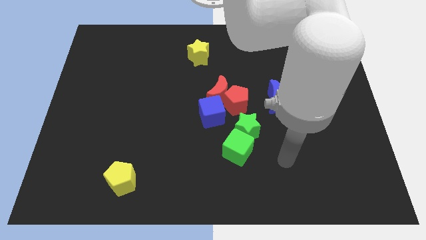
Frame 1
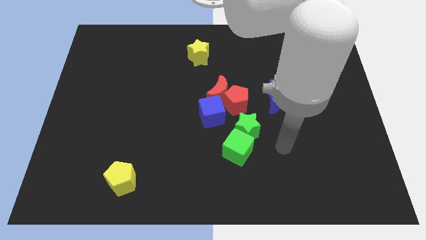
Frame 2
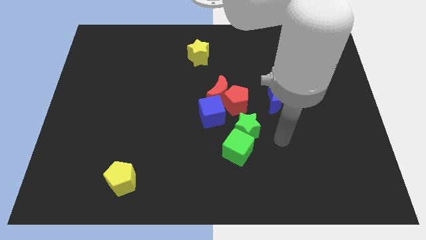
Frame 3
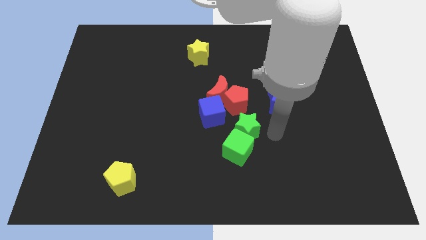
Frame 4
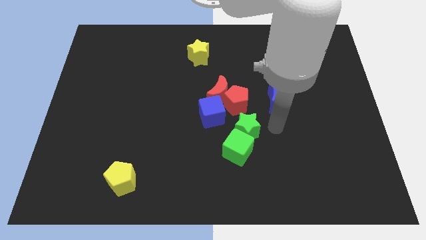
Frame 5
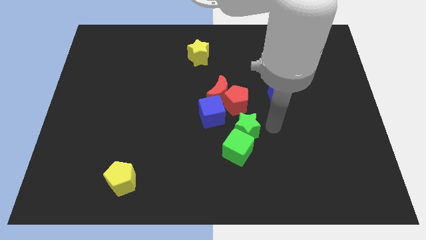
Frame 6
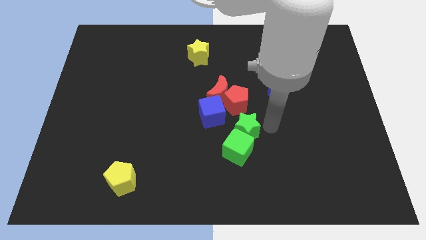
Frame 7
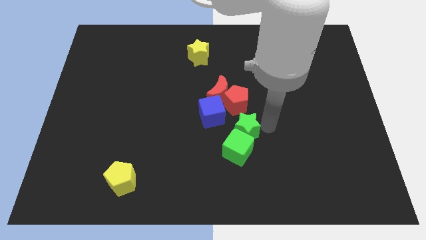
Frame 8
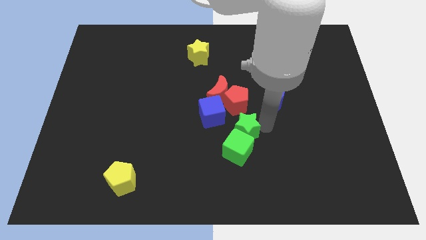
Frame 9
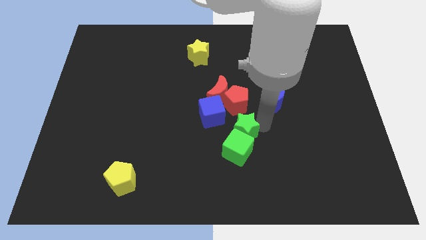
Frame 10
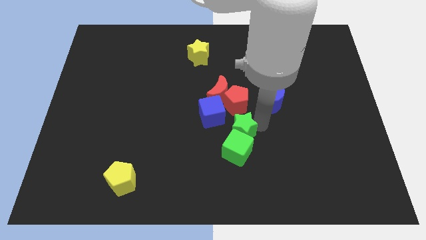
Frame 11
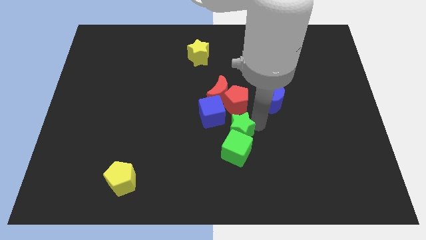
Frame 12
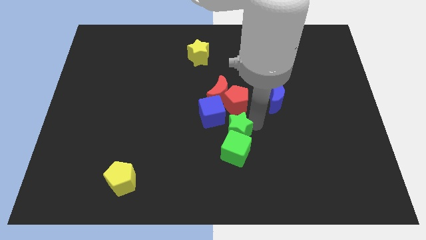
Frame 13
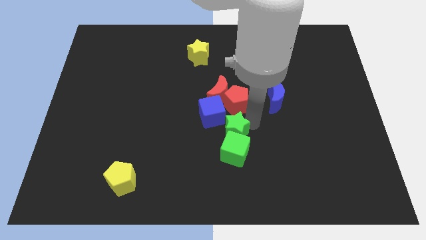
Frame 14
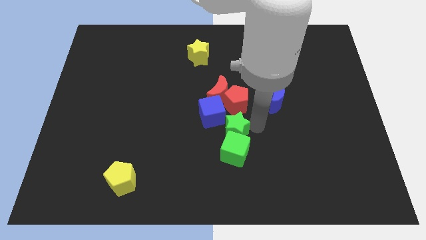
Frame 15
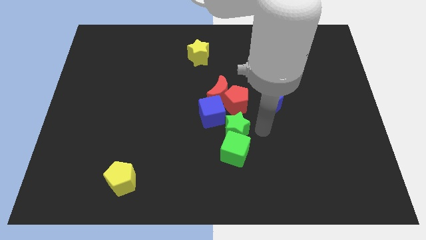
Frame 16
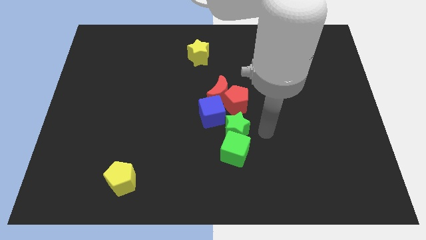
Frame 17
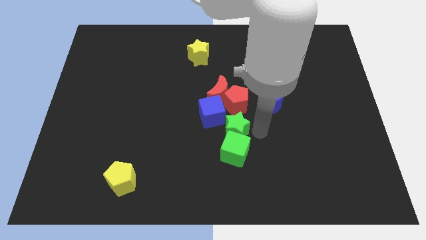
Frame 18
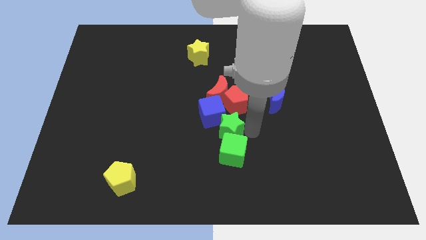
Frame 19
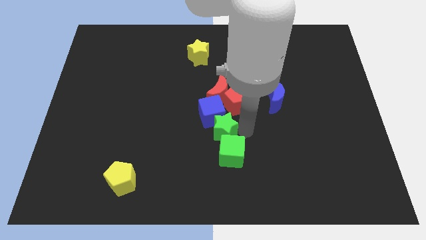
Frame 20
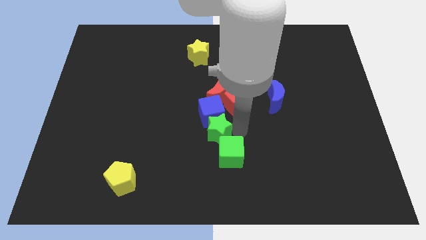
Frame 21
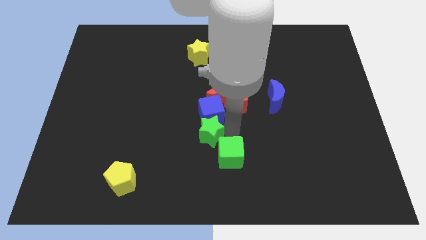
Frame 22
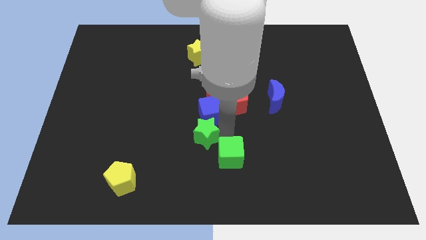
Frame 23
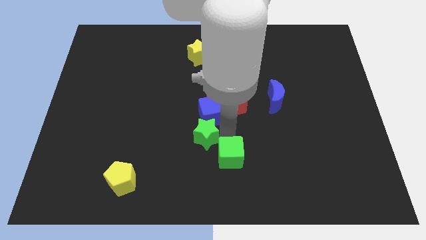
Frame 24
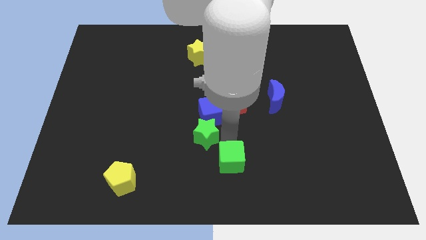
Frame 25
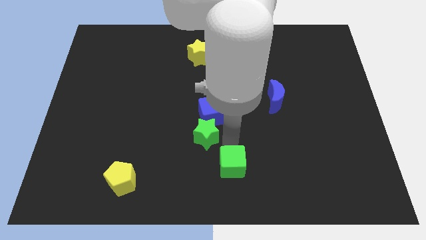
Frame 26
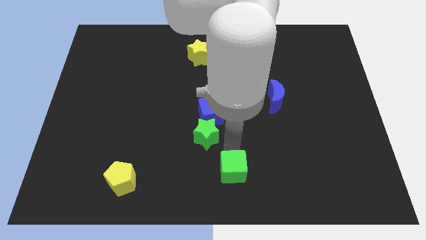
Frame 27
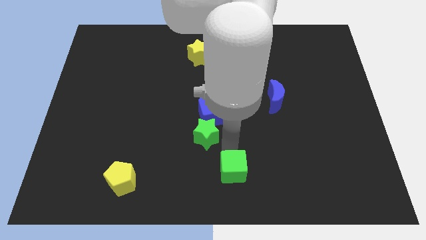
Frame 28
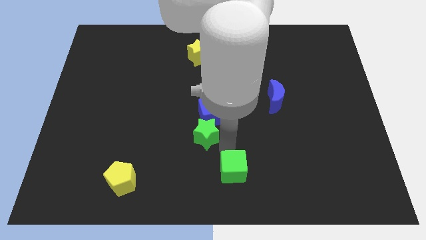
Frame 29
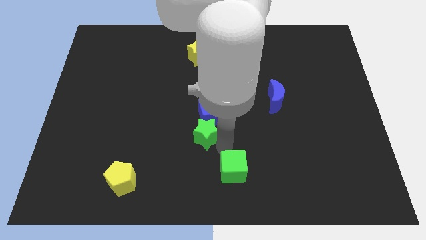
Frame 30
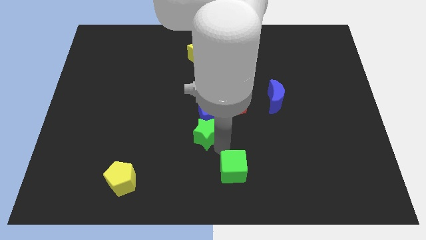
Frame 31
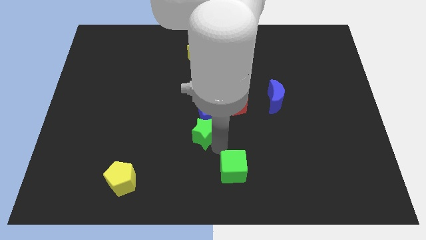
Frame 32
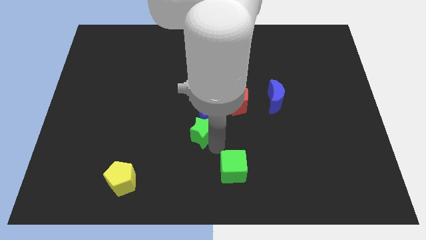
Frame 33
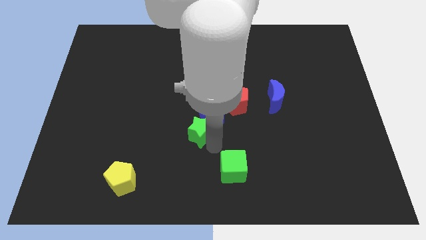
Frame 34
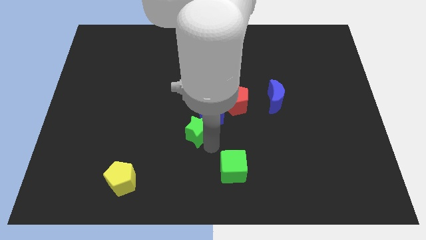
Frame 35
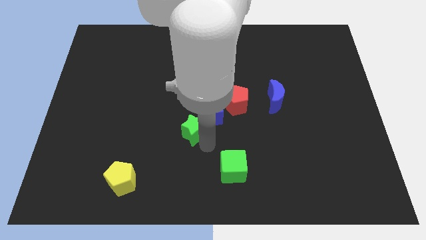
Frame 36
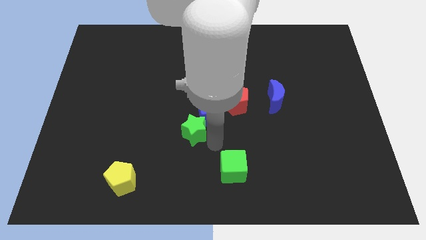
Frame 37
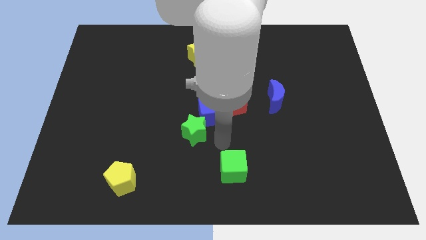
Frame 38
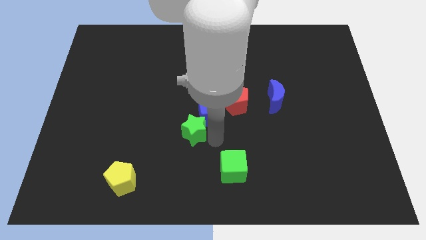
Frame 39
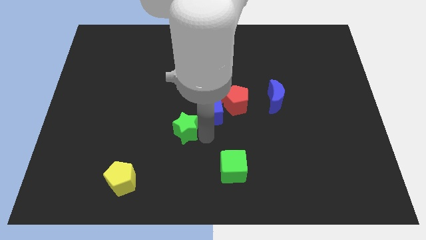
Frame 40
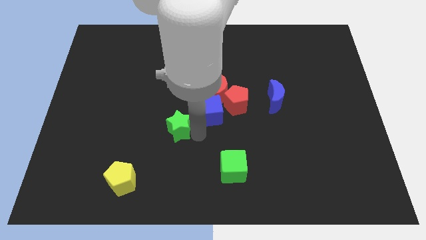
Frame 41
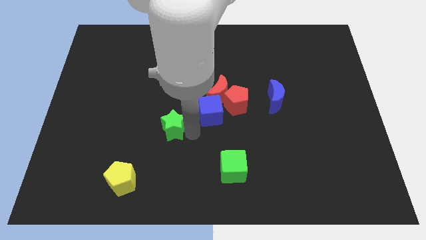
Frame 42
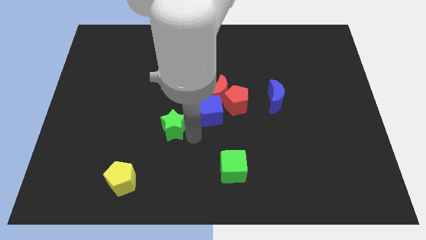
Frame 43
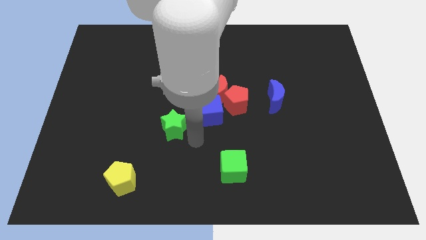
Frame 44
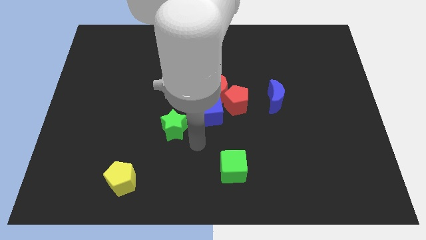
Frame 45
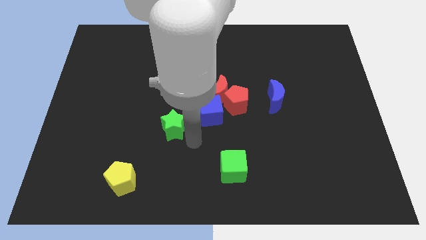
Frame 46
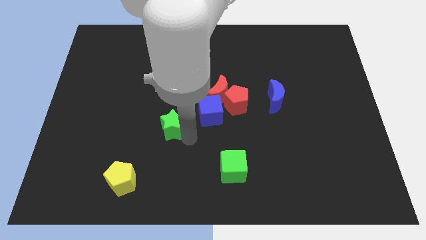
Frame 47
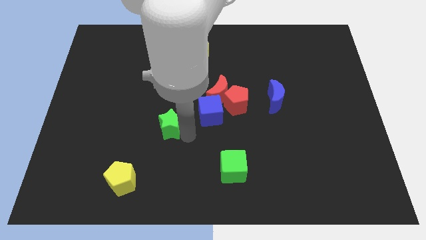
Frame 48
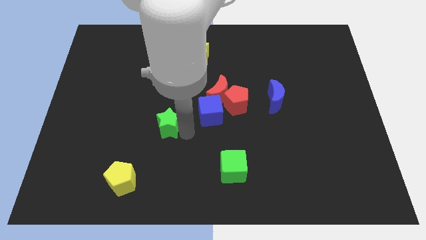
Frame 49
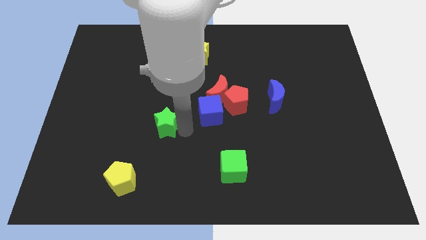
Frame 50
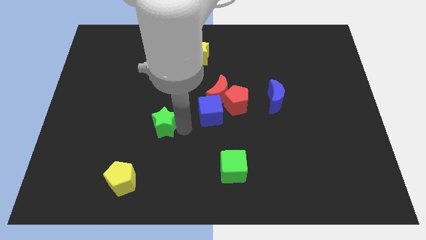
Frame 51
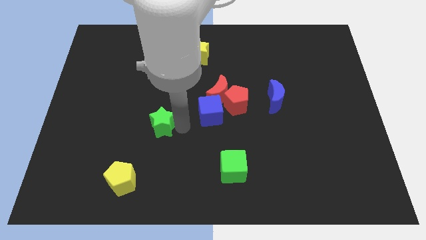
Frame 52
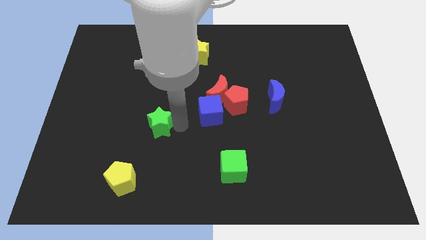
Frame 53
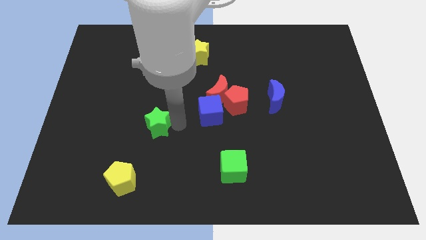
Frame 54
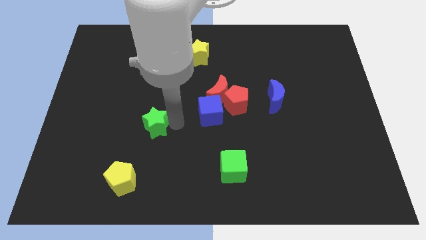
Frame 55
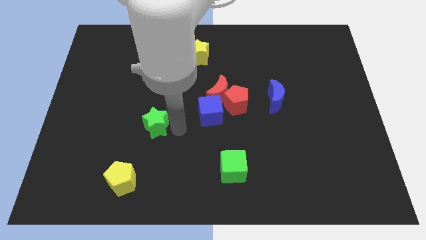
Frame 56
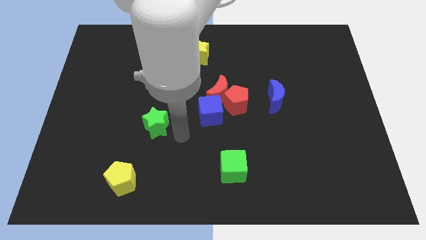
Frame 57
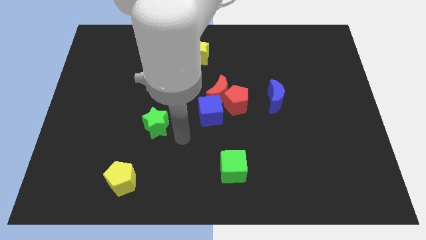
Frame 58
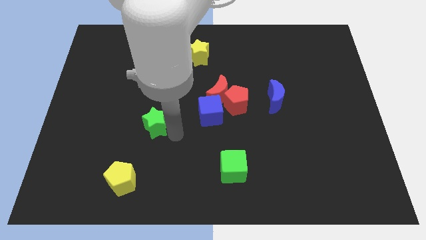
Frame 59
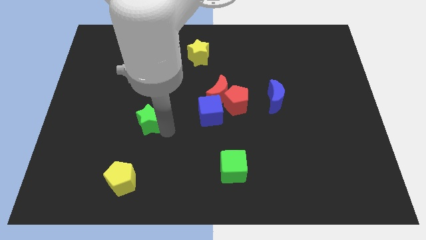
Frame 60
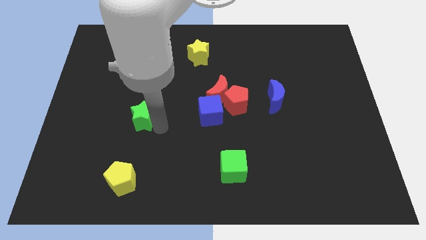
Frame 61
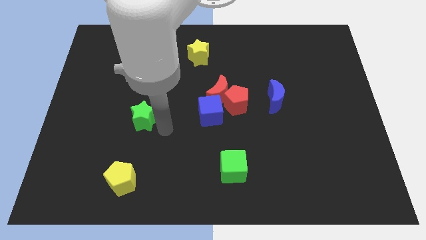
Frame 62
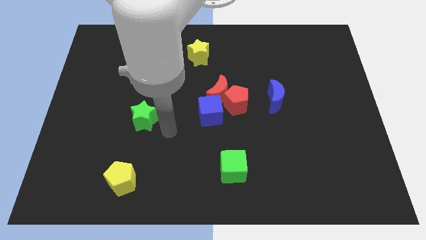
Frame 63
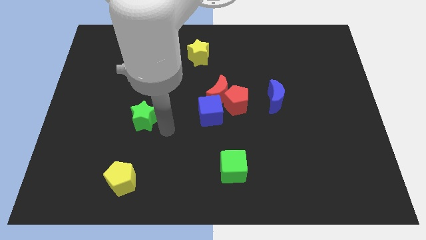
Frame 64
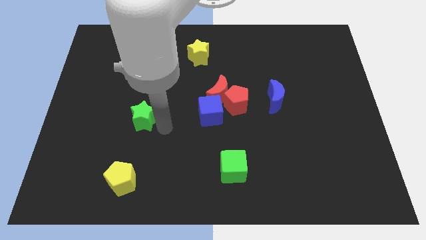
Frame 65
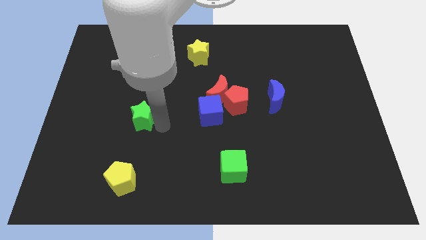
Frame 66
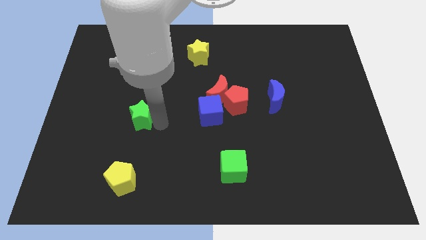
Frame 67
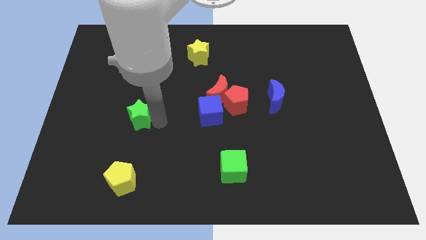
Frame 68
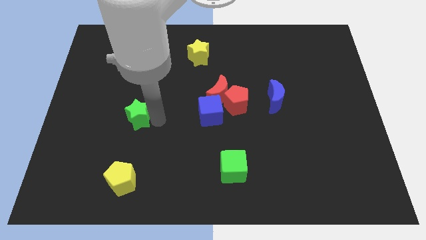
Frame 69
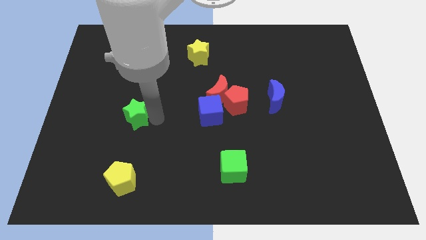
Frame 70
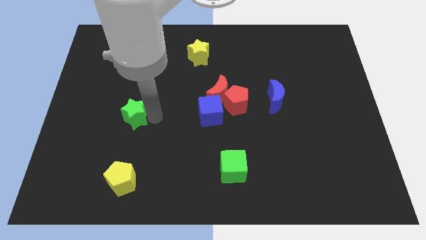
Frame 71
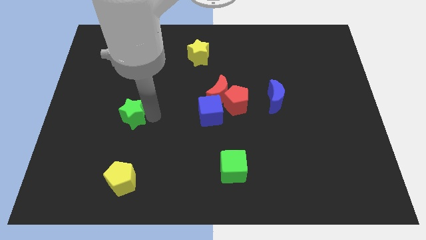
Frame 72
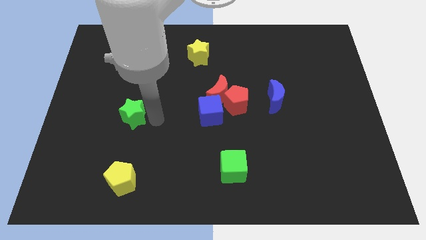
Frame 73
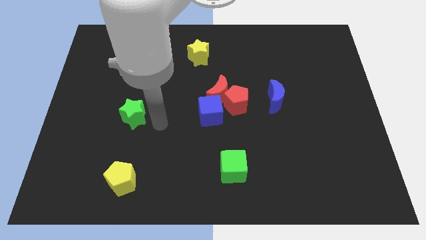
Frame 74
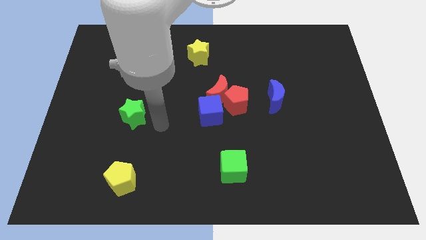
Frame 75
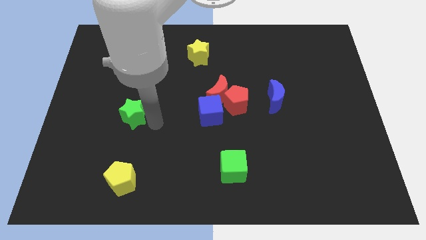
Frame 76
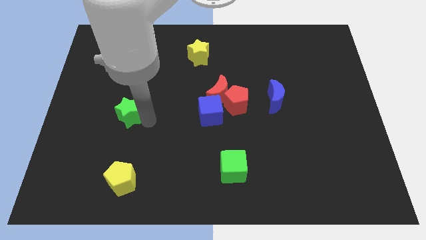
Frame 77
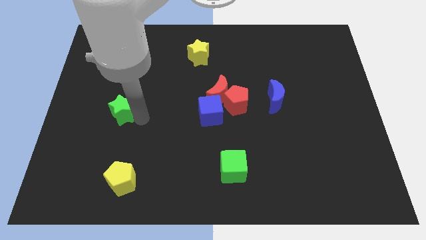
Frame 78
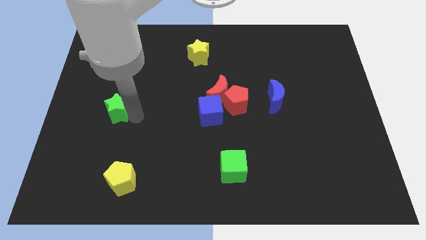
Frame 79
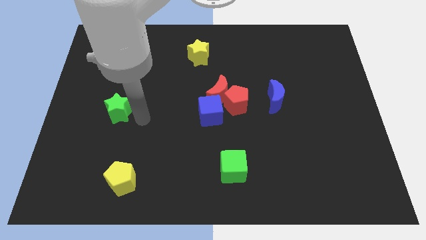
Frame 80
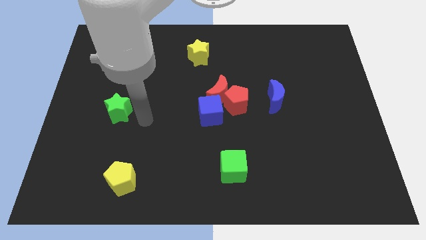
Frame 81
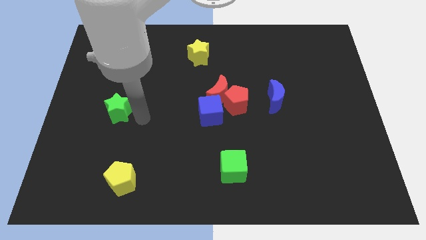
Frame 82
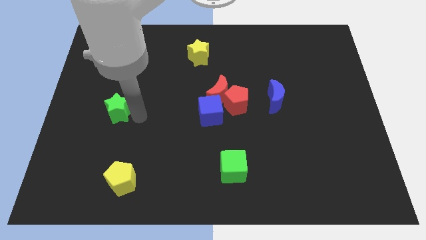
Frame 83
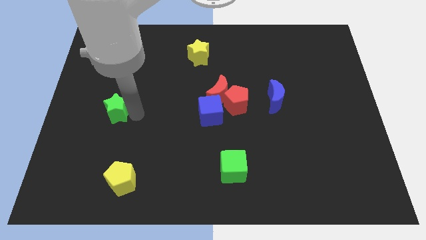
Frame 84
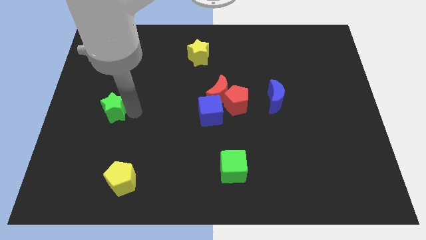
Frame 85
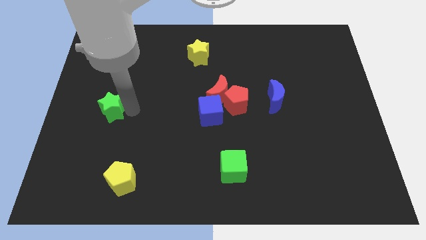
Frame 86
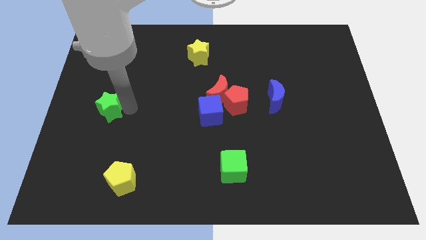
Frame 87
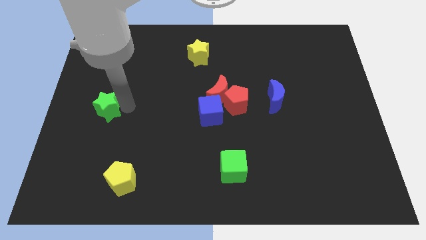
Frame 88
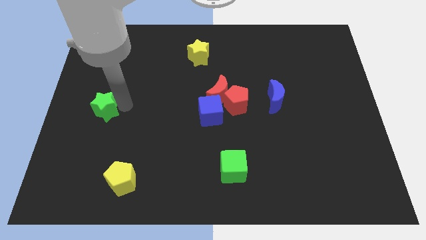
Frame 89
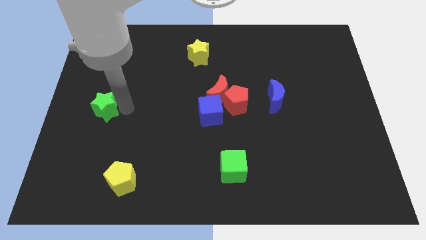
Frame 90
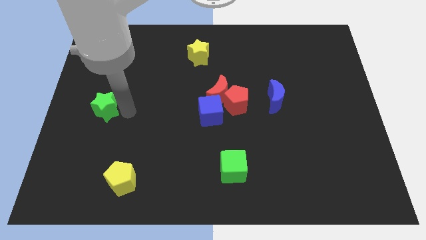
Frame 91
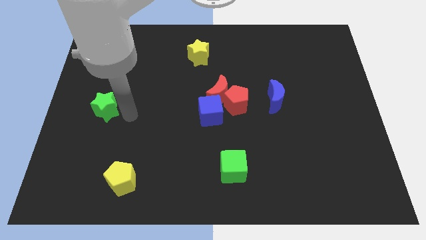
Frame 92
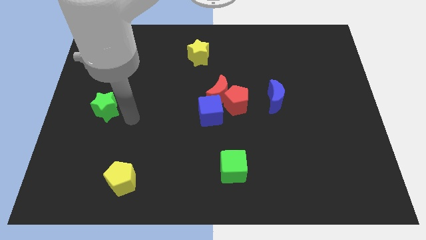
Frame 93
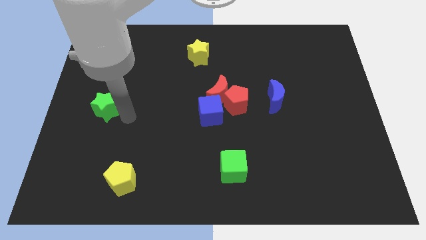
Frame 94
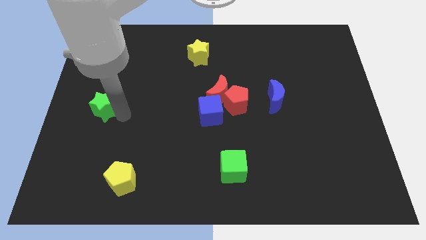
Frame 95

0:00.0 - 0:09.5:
slide the green star to the left side
